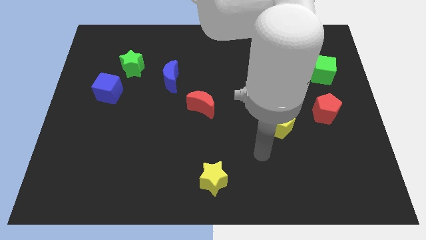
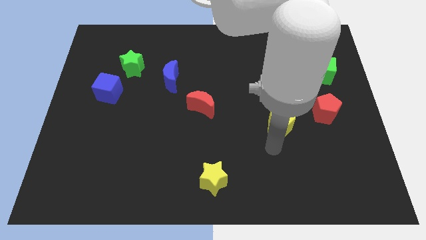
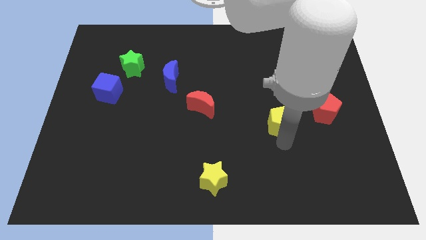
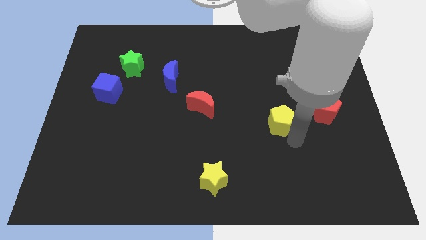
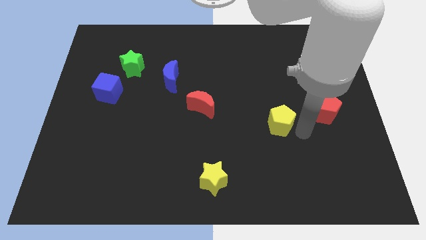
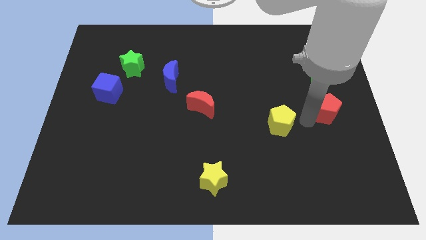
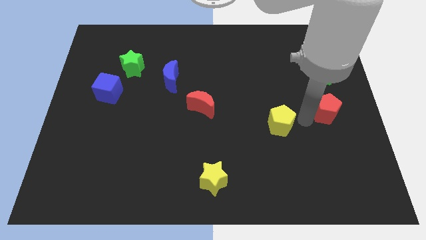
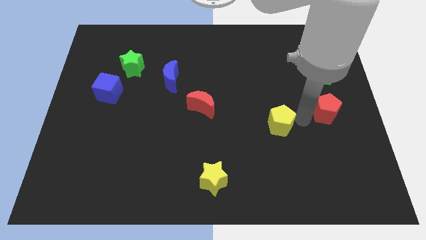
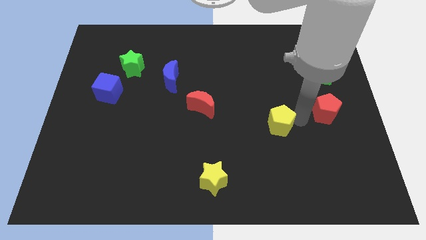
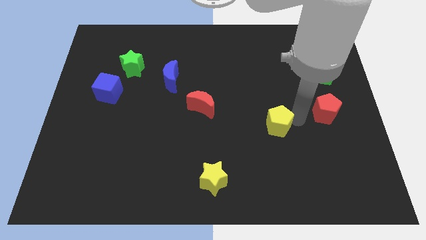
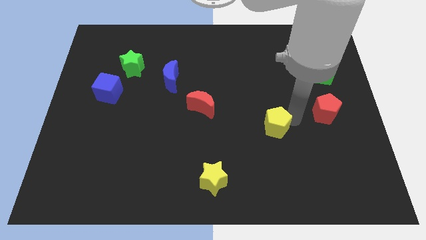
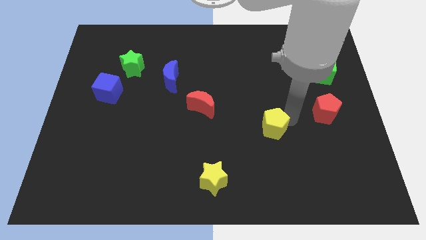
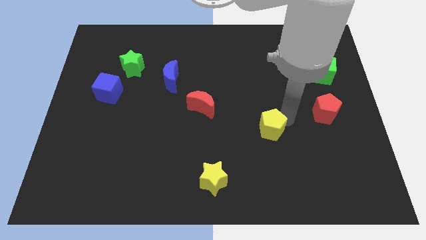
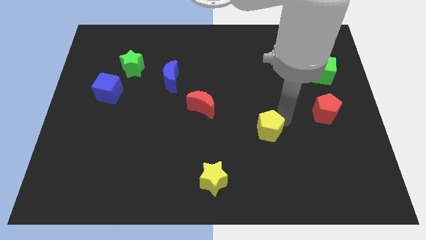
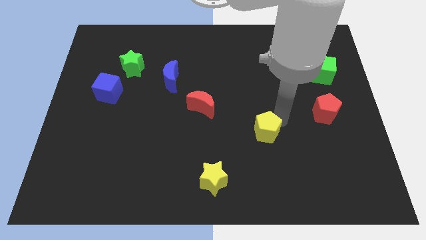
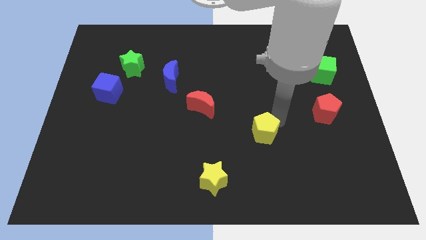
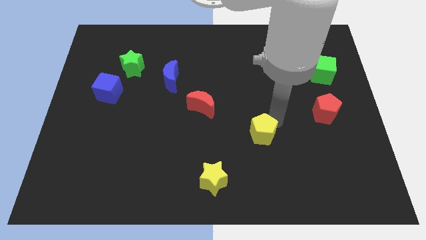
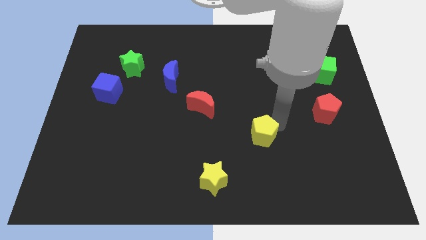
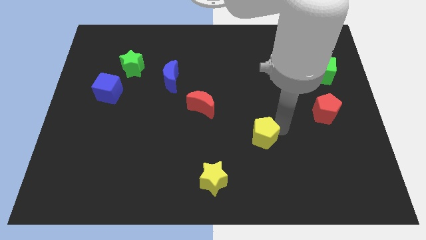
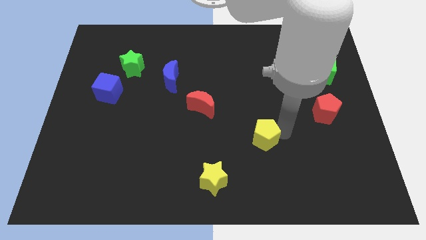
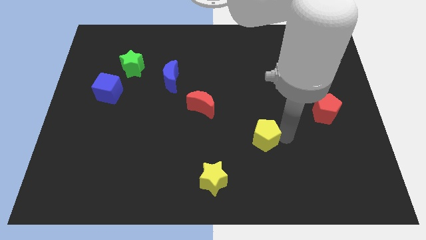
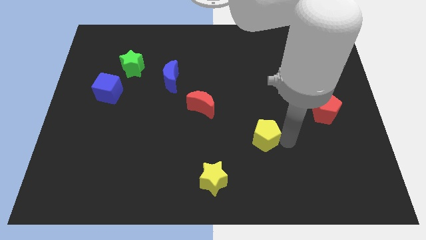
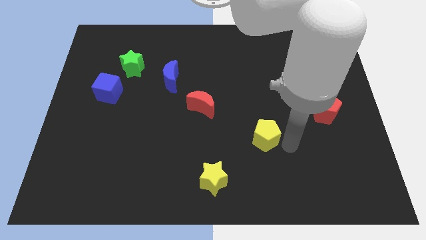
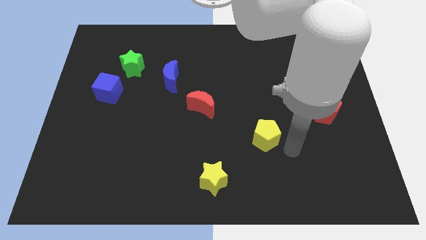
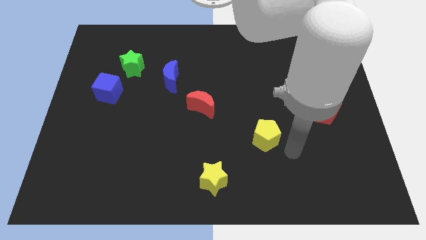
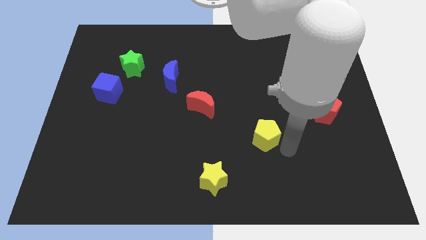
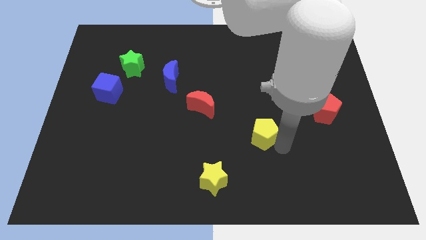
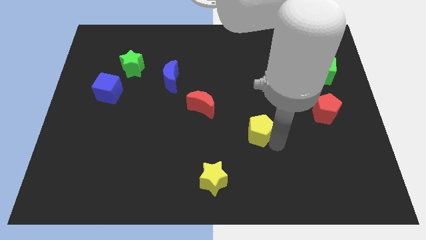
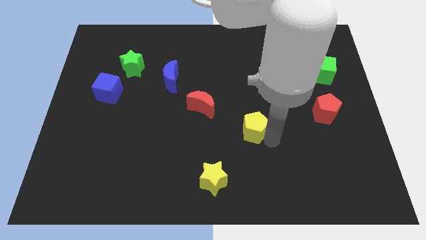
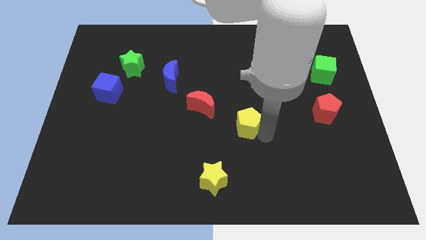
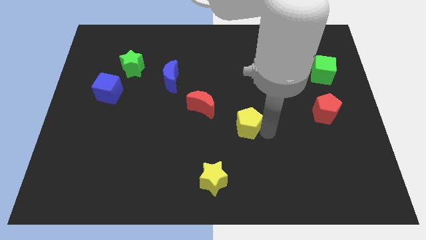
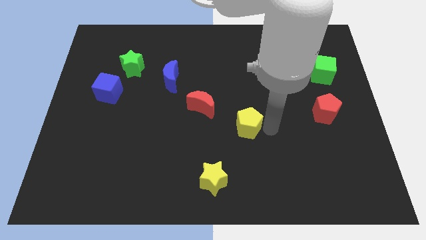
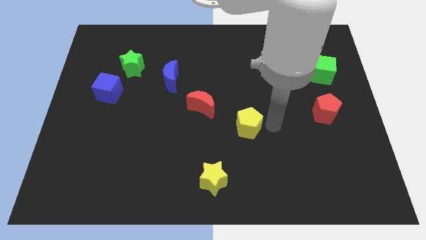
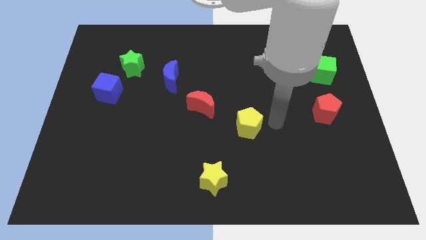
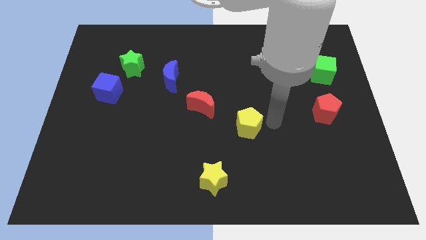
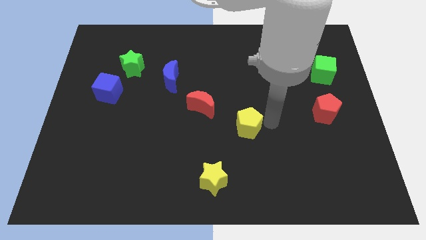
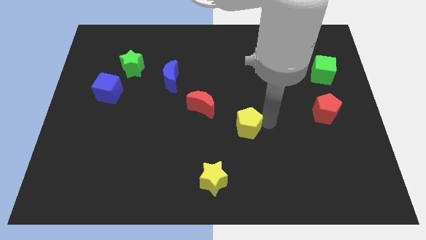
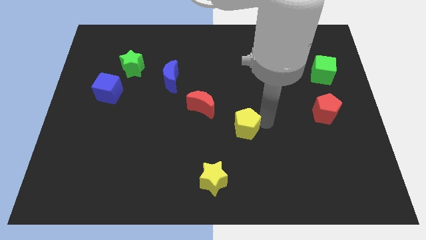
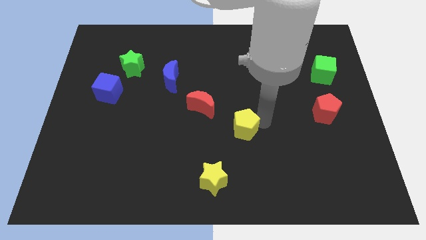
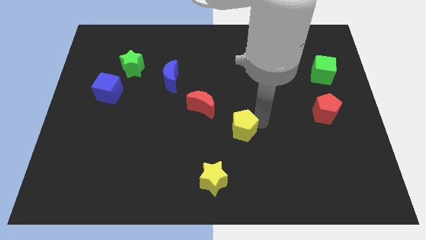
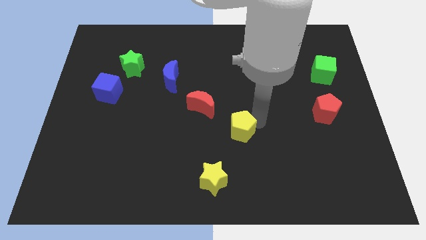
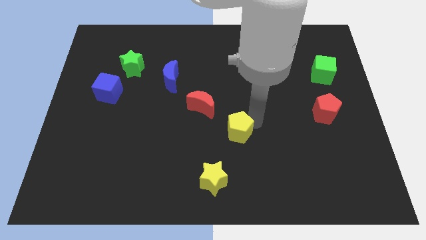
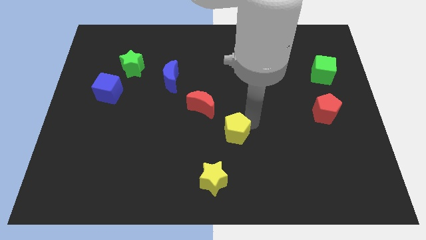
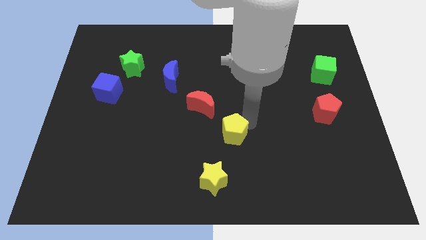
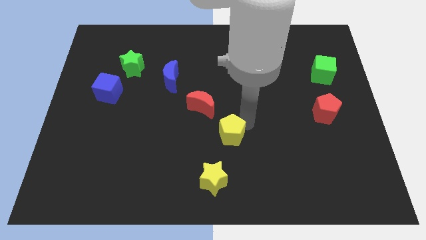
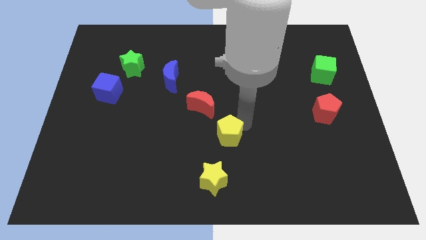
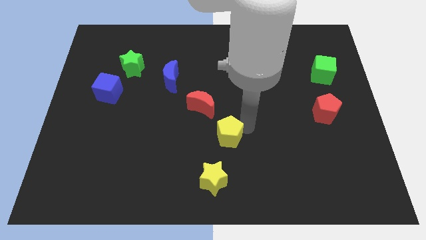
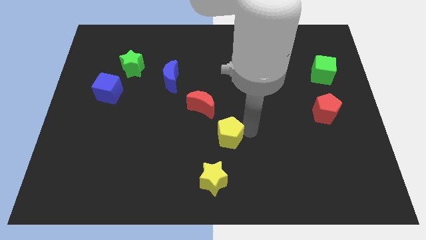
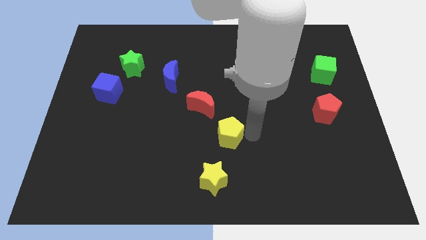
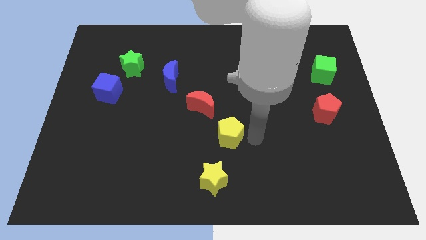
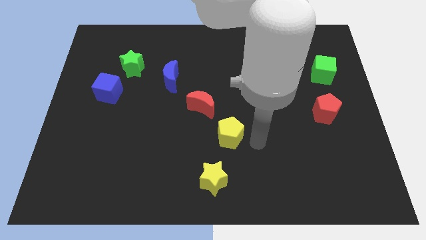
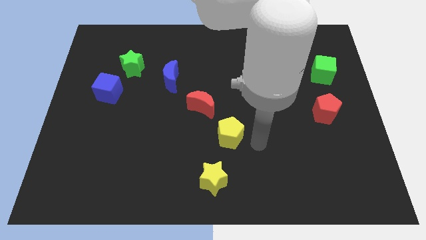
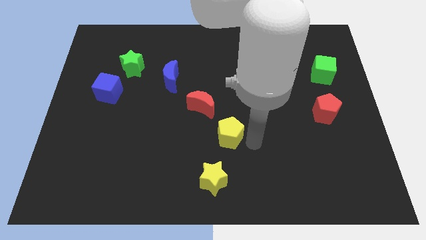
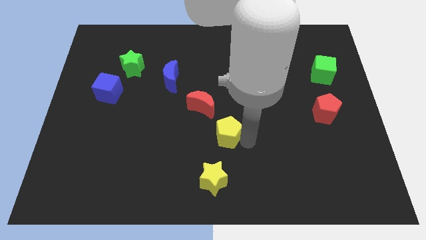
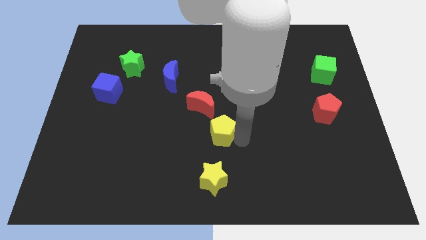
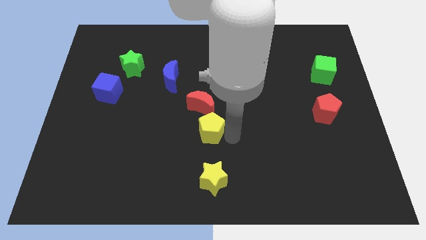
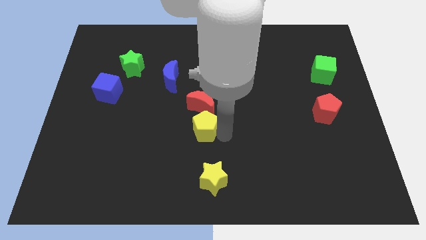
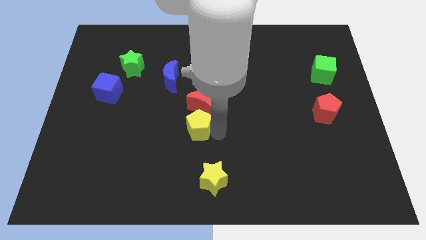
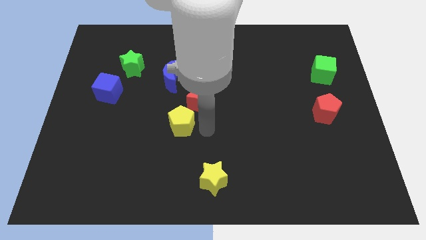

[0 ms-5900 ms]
move the yellow pentagon left

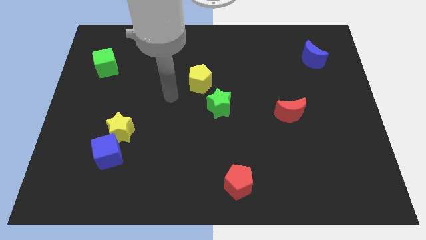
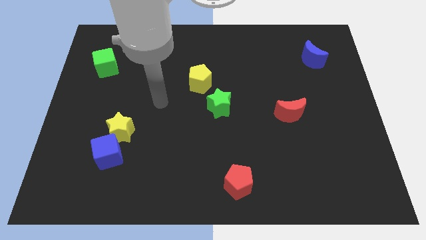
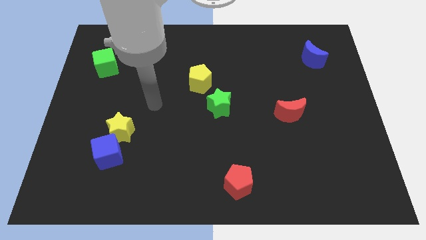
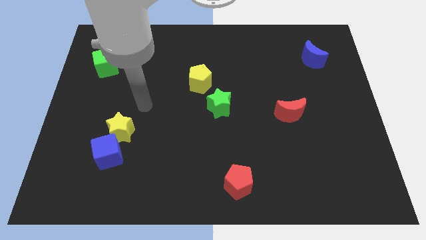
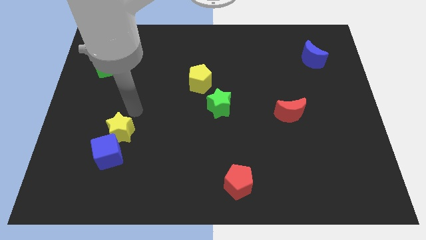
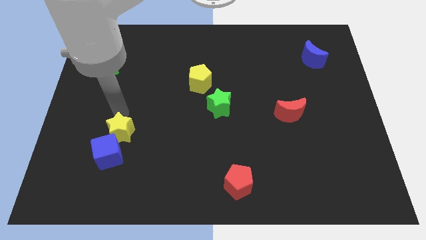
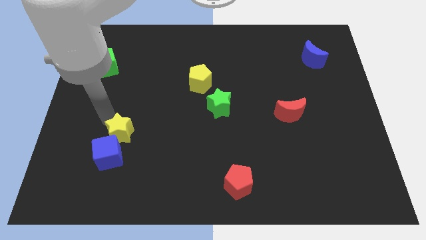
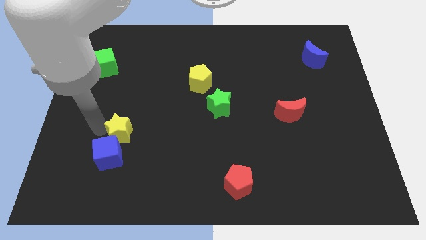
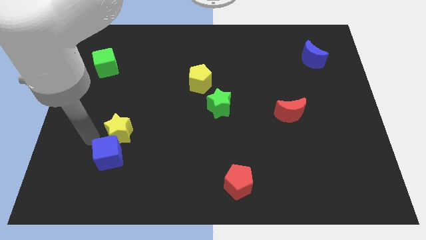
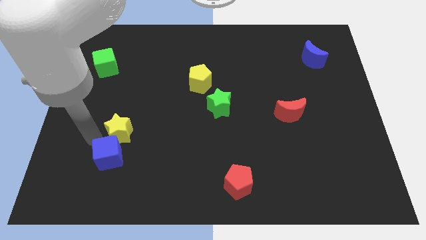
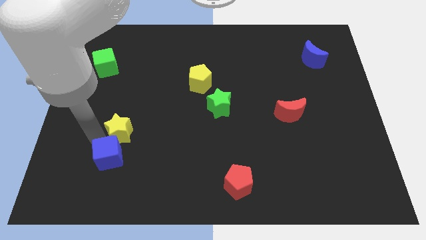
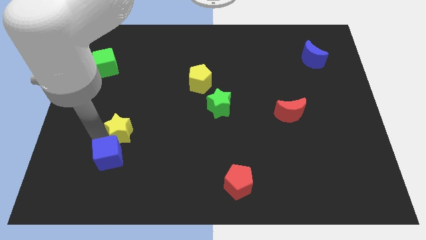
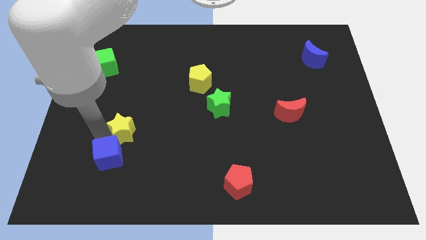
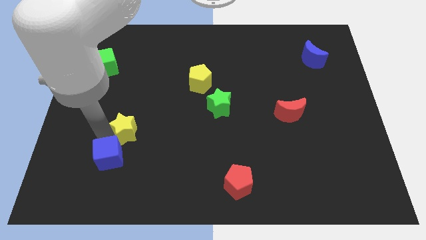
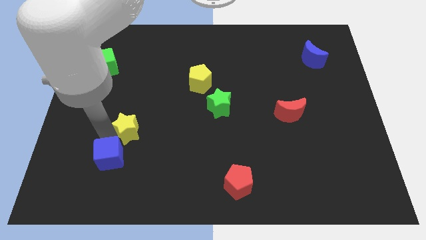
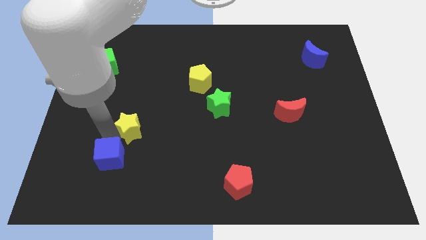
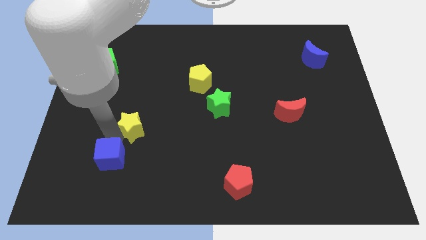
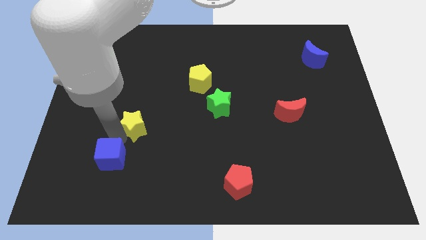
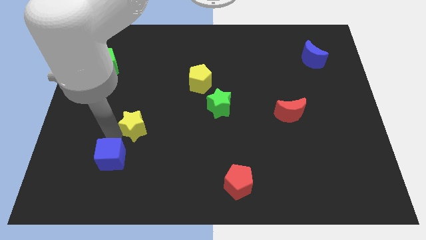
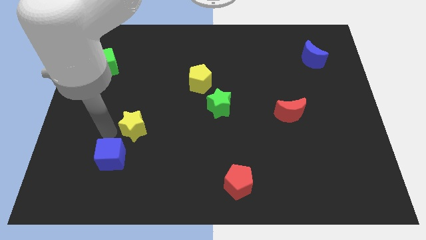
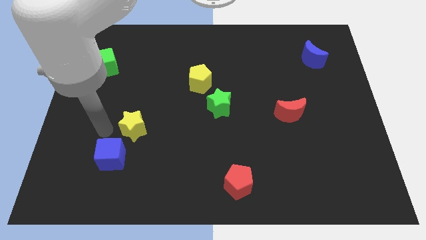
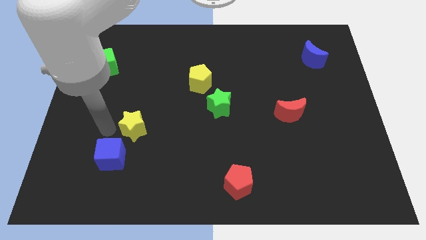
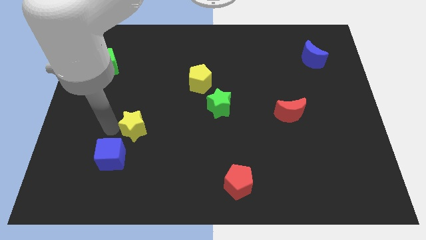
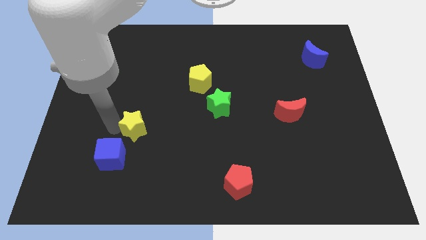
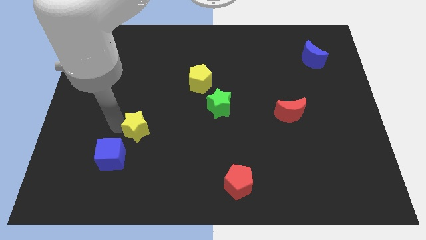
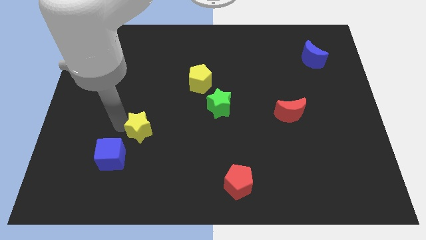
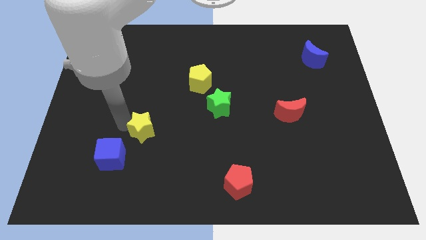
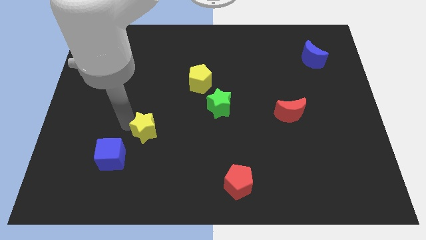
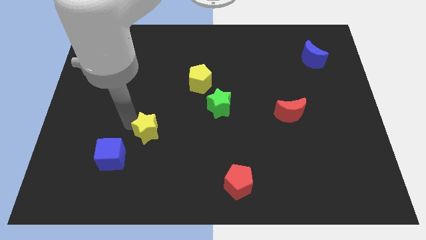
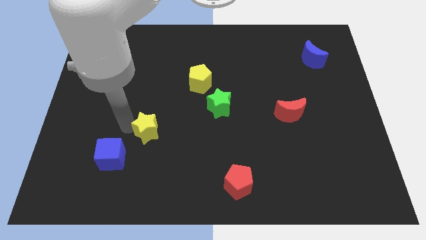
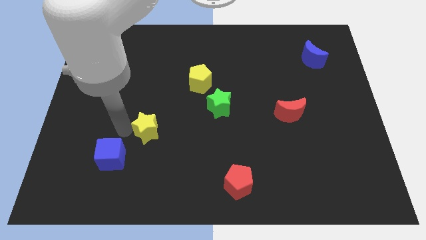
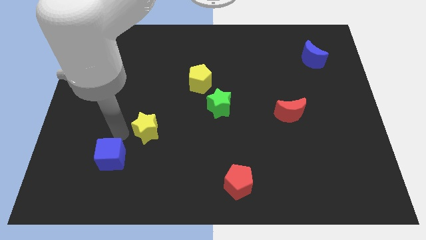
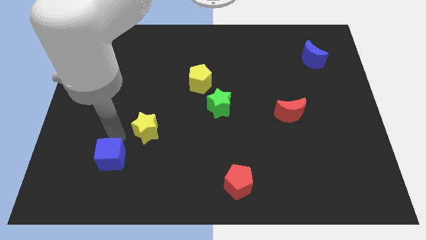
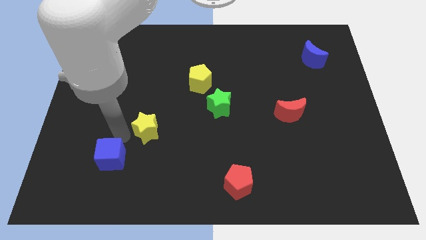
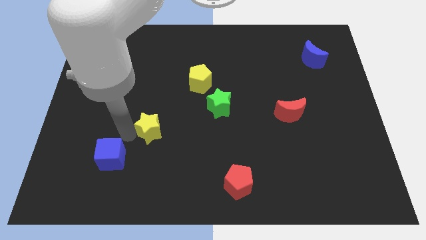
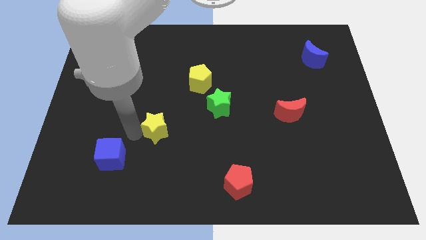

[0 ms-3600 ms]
move the yellow star right a little
